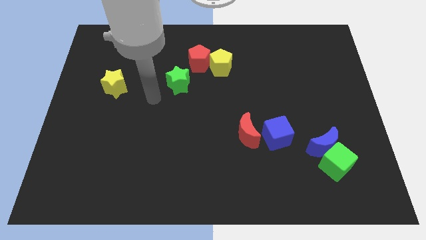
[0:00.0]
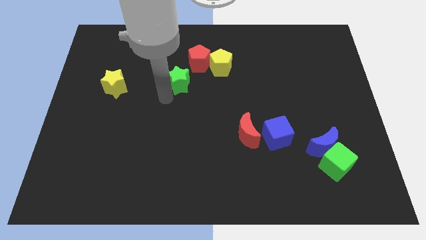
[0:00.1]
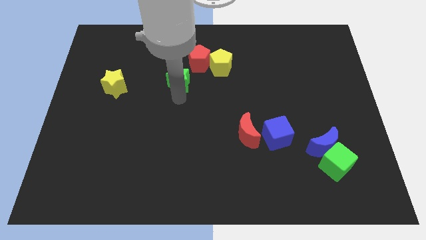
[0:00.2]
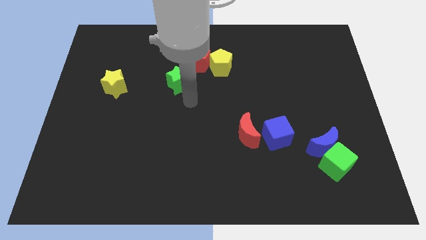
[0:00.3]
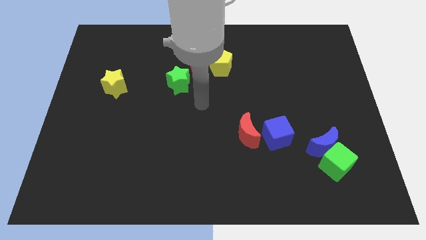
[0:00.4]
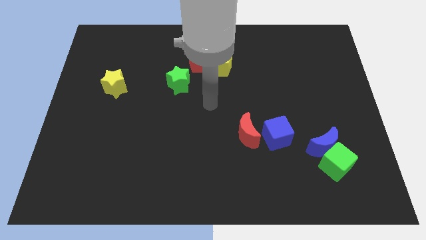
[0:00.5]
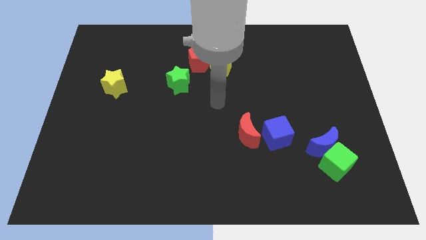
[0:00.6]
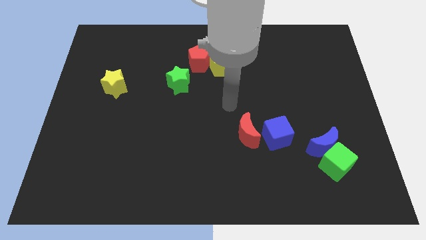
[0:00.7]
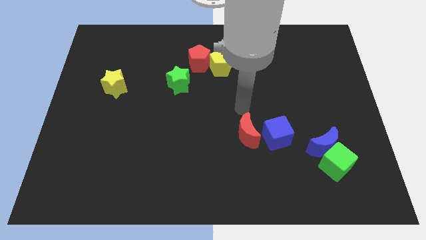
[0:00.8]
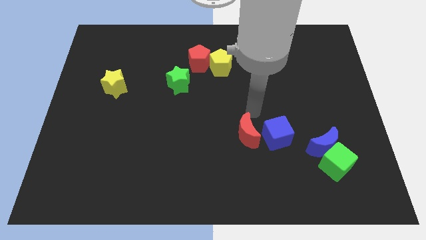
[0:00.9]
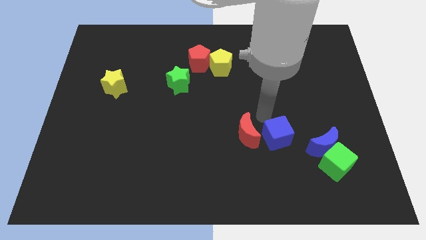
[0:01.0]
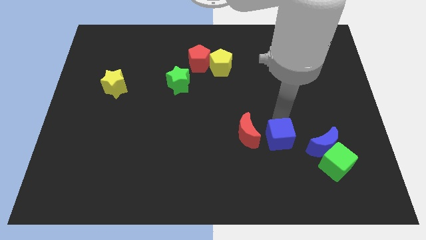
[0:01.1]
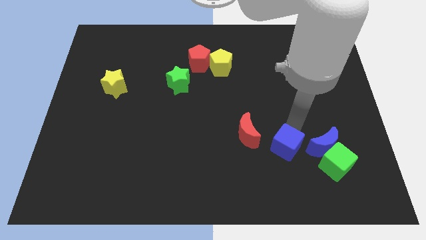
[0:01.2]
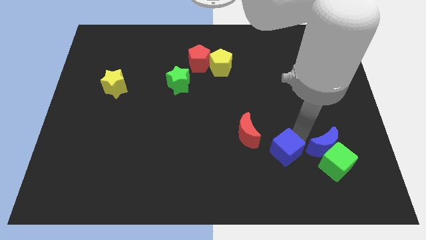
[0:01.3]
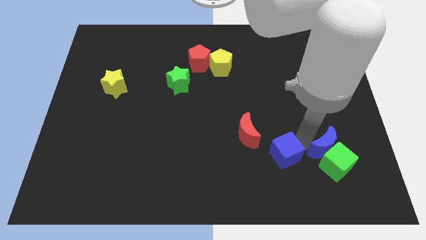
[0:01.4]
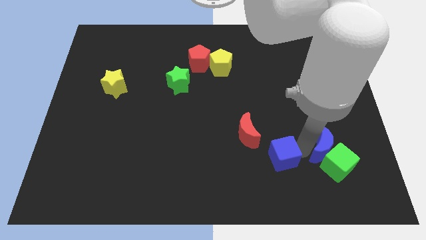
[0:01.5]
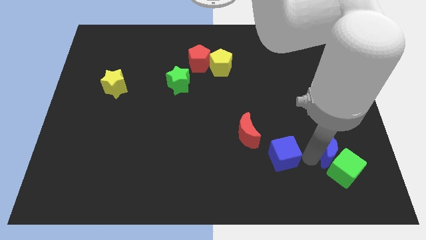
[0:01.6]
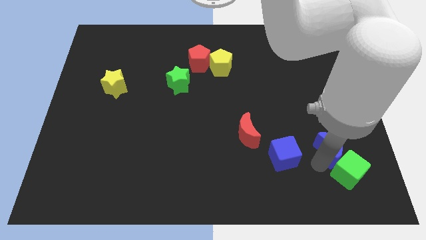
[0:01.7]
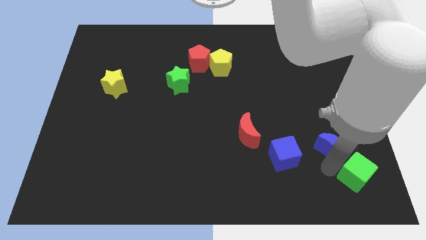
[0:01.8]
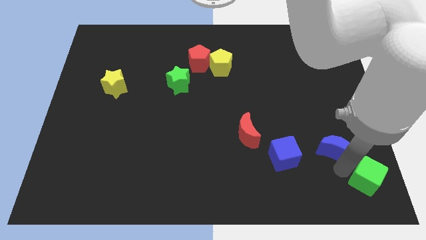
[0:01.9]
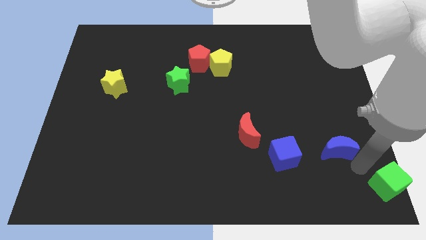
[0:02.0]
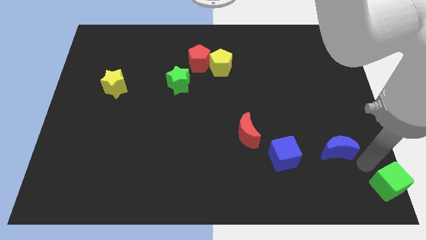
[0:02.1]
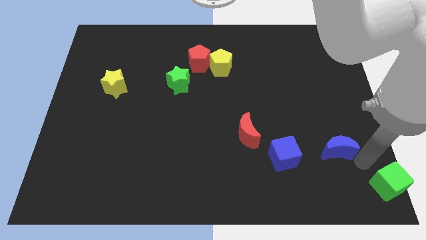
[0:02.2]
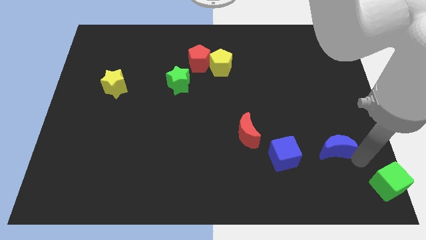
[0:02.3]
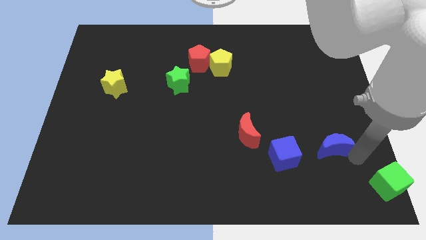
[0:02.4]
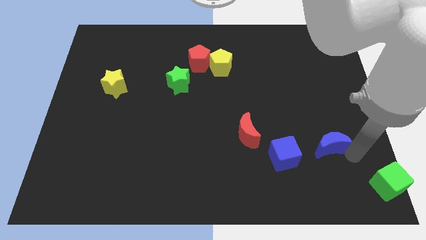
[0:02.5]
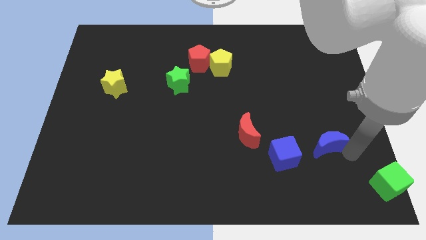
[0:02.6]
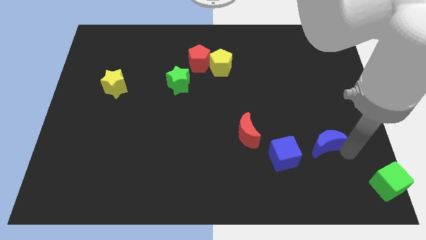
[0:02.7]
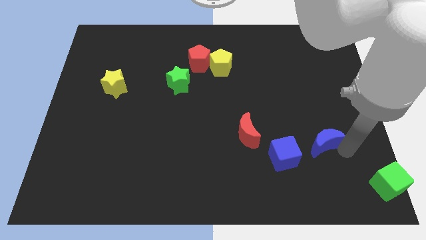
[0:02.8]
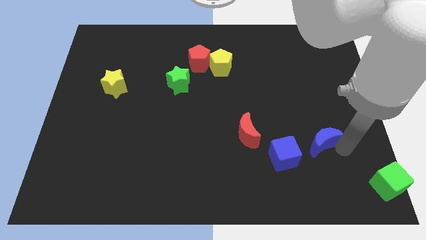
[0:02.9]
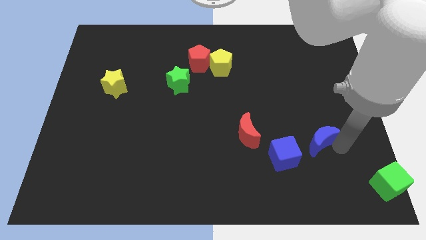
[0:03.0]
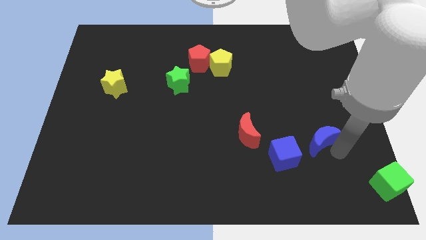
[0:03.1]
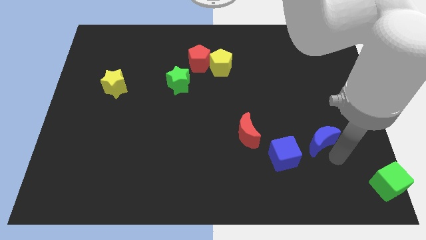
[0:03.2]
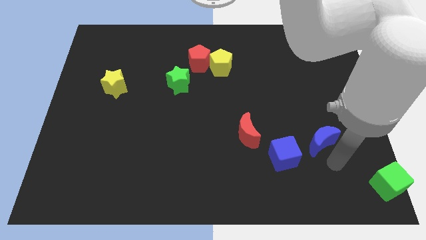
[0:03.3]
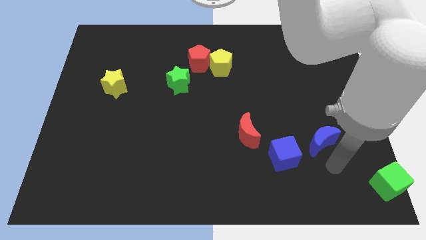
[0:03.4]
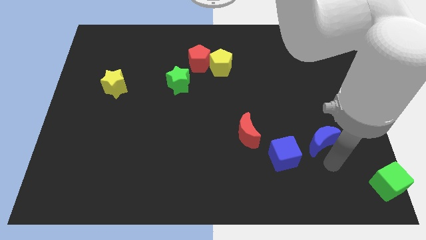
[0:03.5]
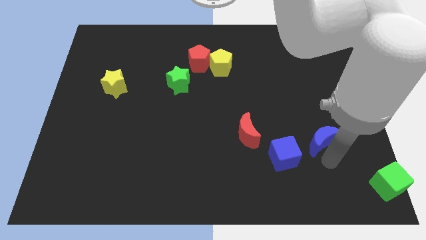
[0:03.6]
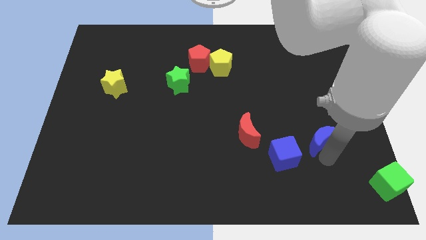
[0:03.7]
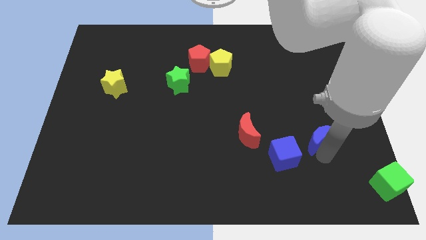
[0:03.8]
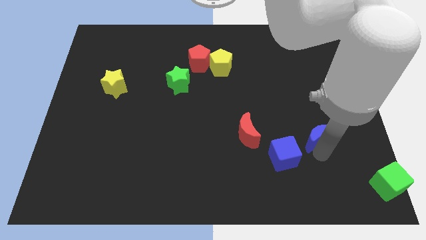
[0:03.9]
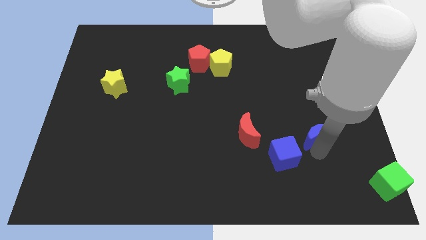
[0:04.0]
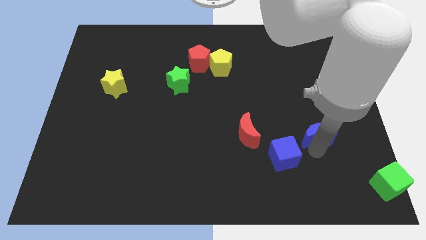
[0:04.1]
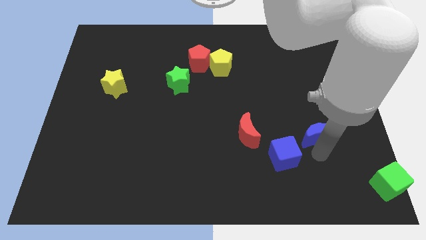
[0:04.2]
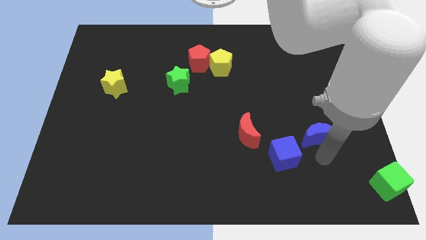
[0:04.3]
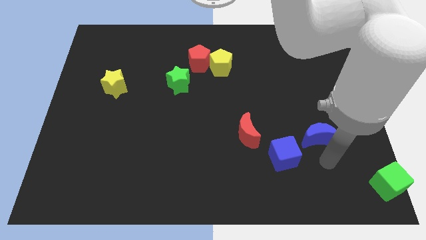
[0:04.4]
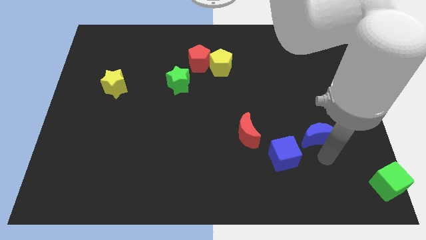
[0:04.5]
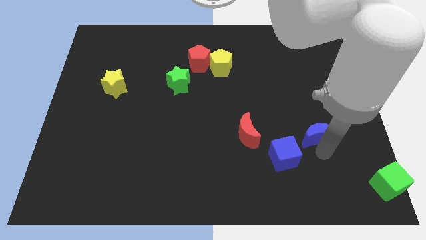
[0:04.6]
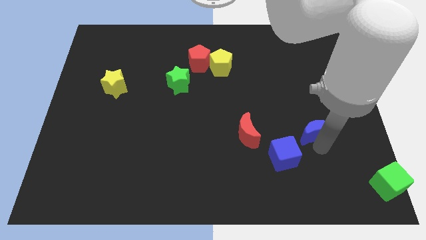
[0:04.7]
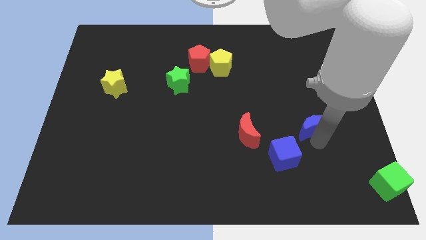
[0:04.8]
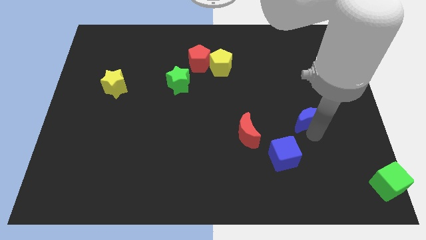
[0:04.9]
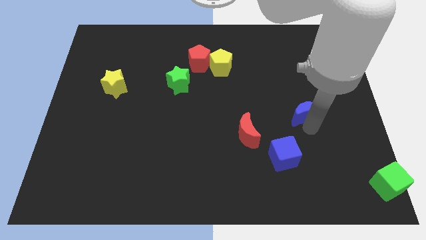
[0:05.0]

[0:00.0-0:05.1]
push the blue moon somewhat upwards

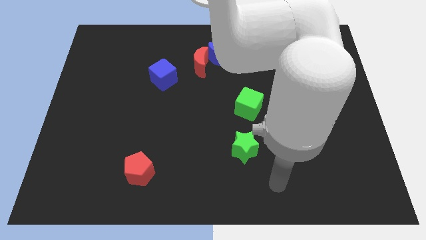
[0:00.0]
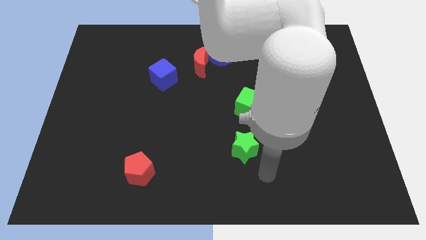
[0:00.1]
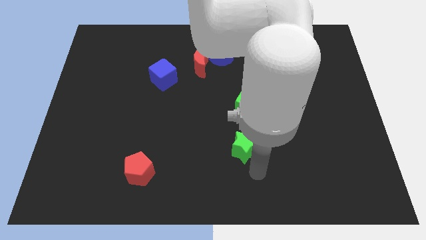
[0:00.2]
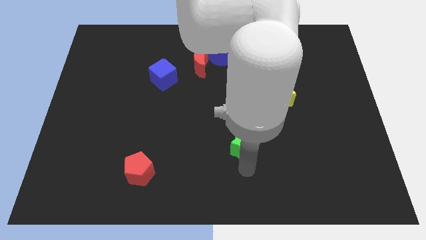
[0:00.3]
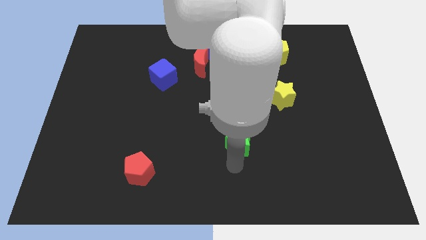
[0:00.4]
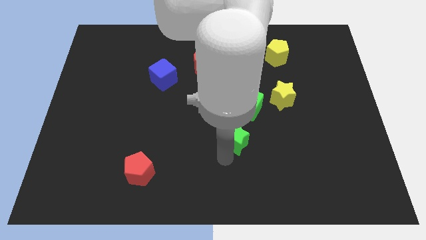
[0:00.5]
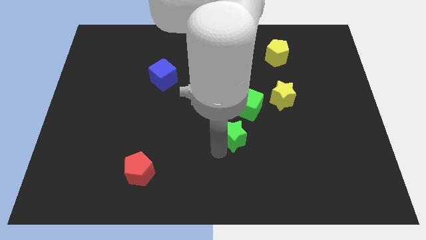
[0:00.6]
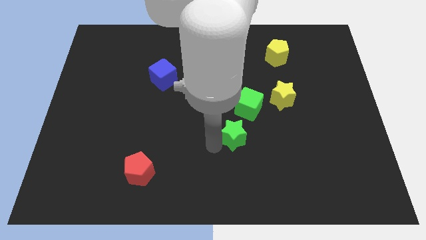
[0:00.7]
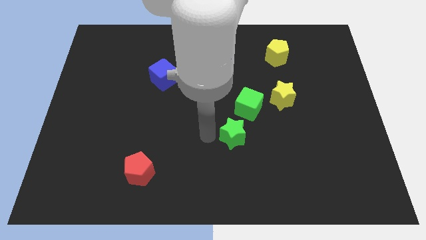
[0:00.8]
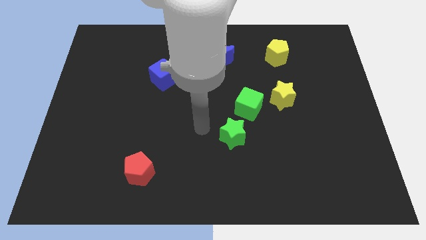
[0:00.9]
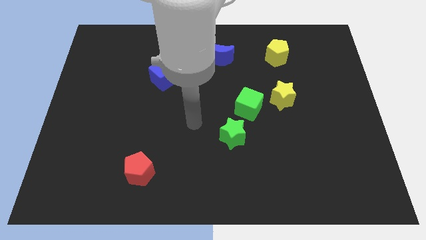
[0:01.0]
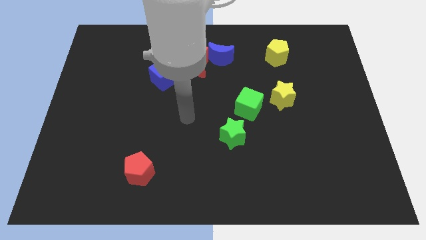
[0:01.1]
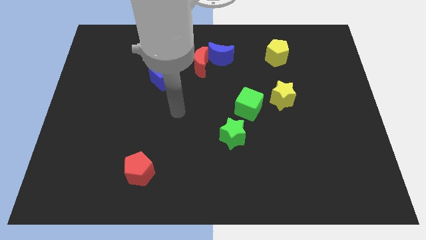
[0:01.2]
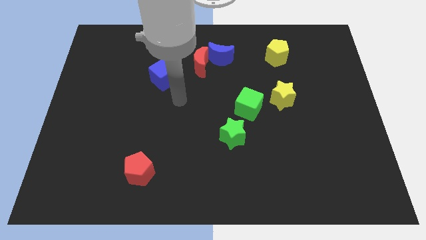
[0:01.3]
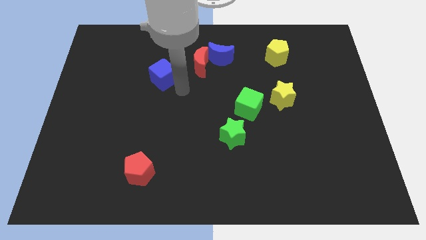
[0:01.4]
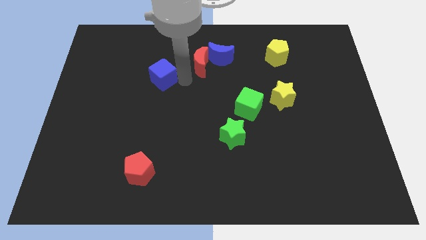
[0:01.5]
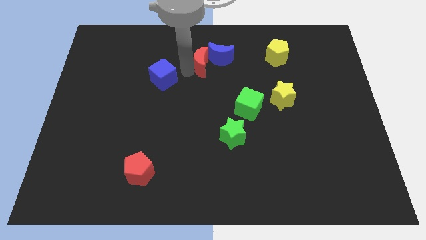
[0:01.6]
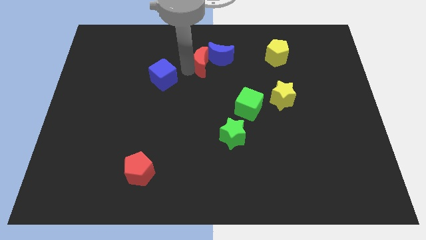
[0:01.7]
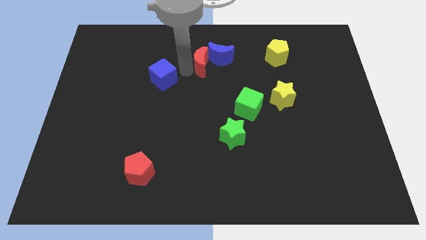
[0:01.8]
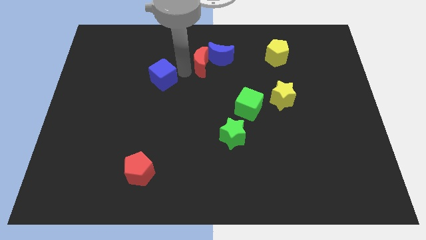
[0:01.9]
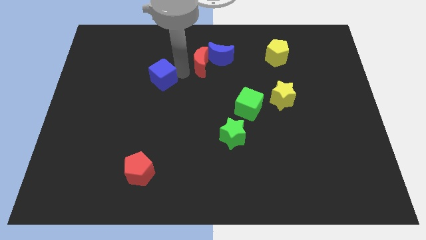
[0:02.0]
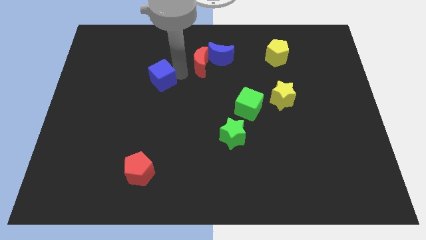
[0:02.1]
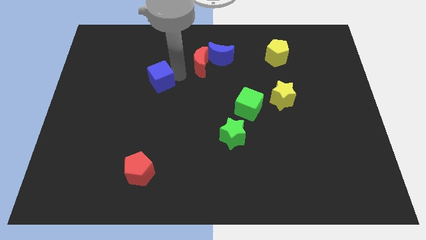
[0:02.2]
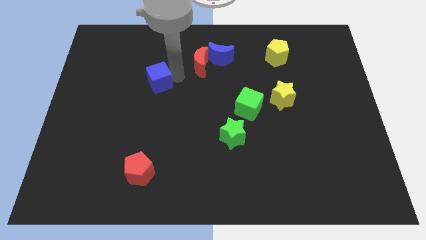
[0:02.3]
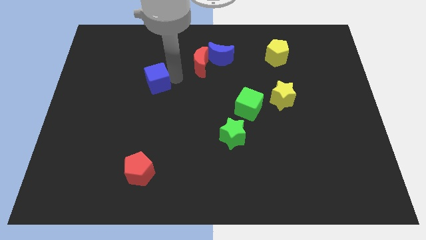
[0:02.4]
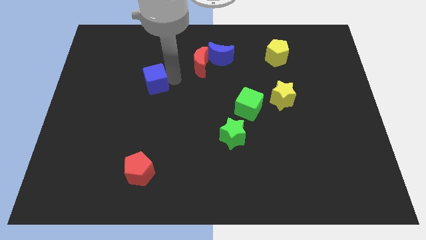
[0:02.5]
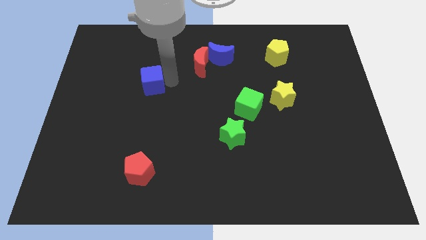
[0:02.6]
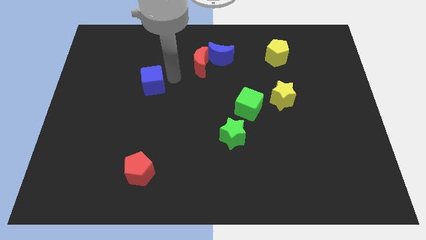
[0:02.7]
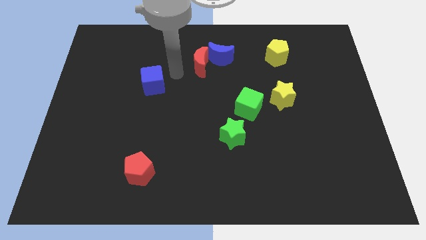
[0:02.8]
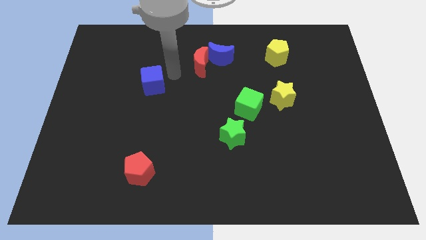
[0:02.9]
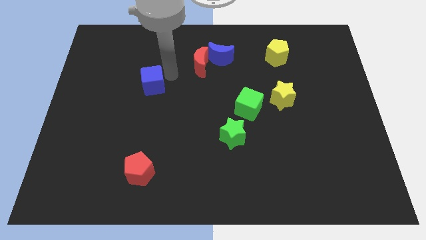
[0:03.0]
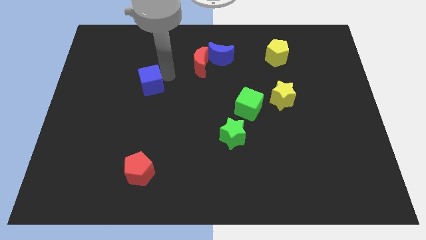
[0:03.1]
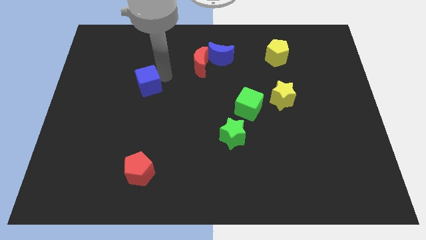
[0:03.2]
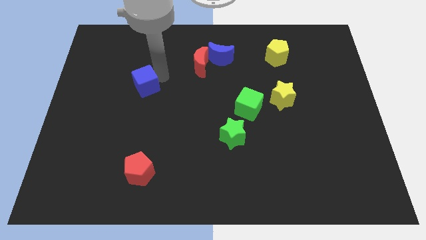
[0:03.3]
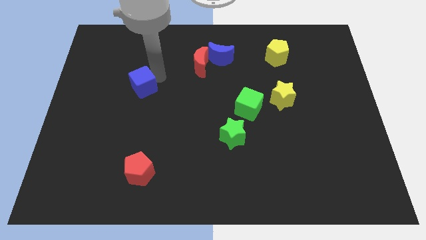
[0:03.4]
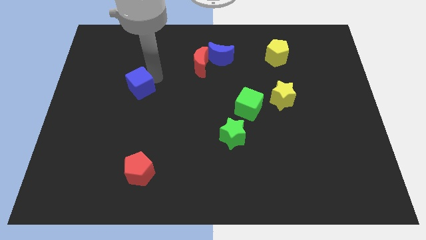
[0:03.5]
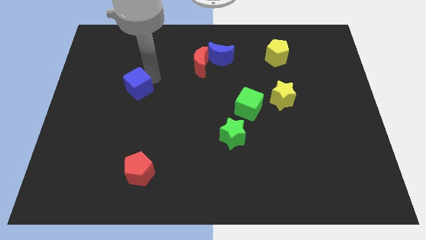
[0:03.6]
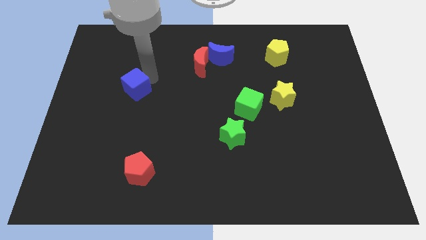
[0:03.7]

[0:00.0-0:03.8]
push the blue cube diagonally downwards and to the left a little
